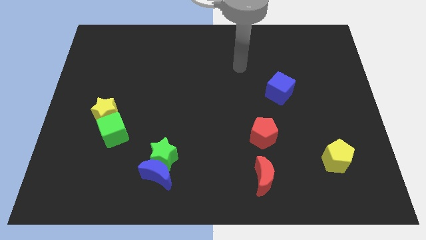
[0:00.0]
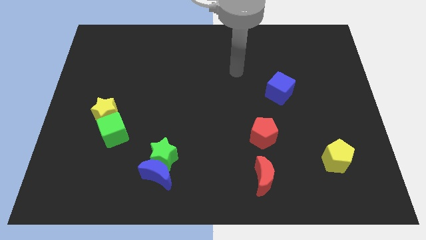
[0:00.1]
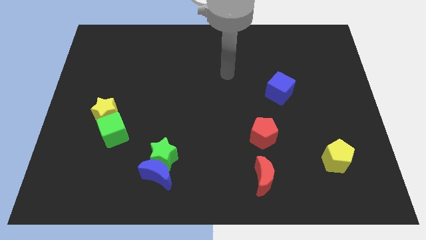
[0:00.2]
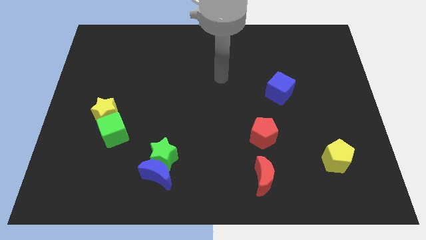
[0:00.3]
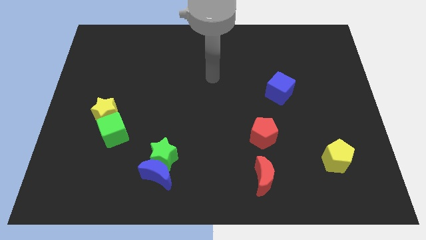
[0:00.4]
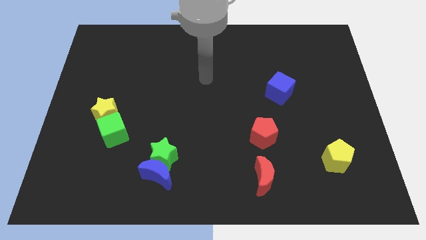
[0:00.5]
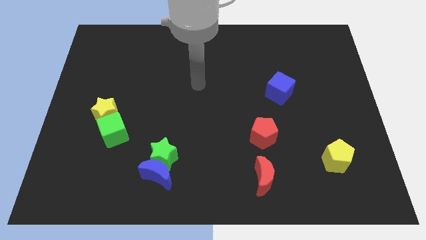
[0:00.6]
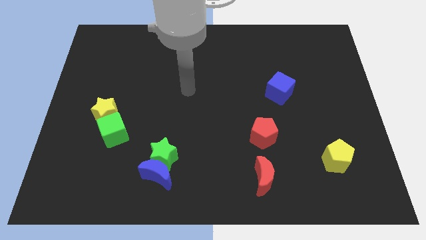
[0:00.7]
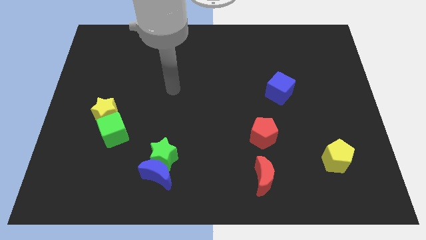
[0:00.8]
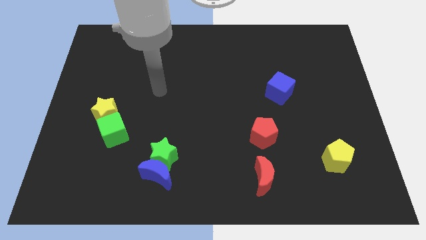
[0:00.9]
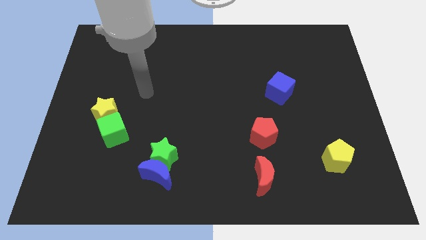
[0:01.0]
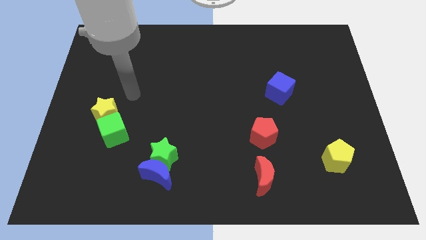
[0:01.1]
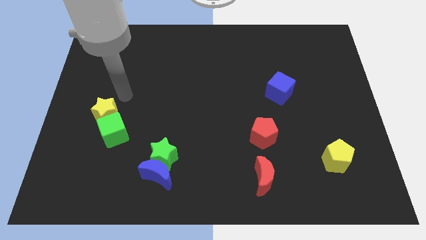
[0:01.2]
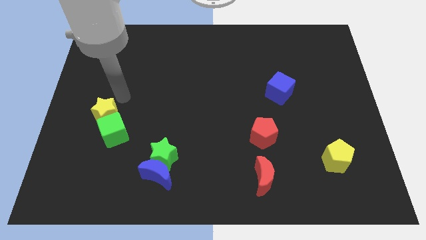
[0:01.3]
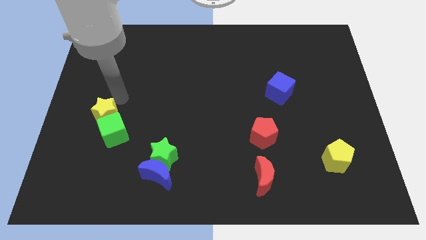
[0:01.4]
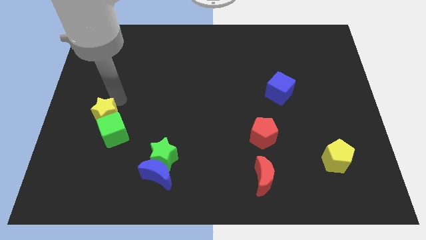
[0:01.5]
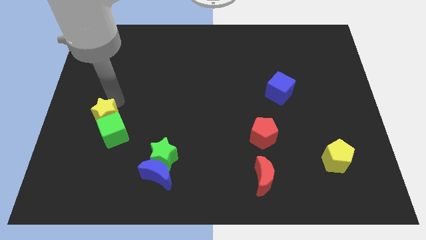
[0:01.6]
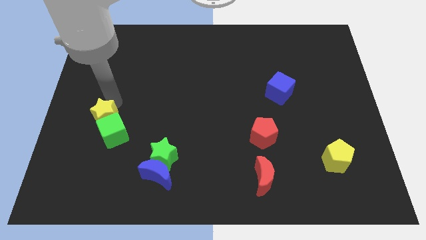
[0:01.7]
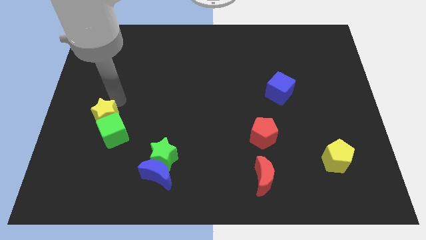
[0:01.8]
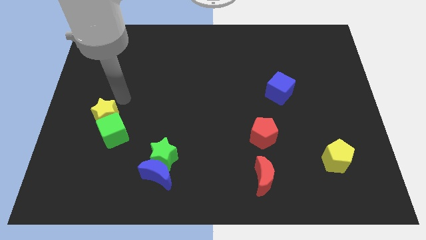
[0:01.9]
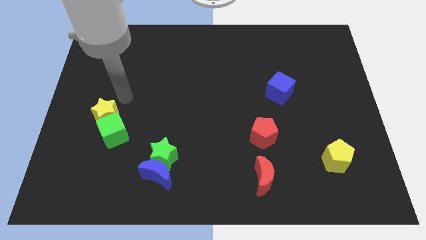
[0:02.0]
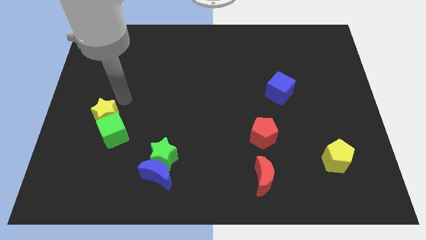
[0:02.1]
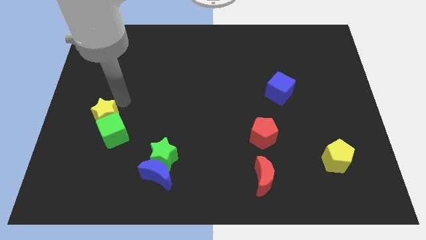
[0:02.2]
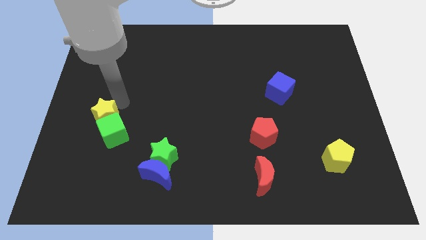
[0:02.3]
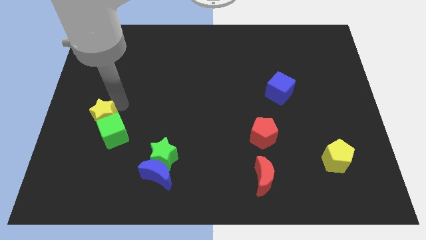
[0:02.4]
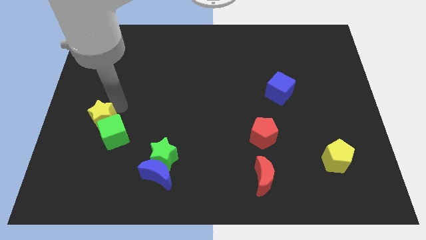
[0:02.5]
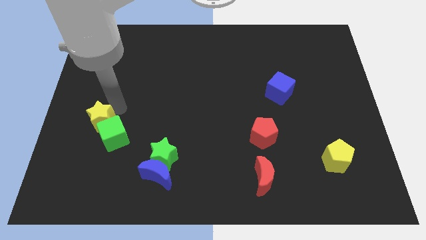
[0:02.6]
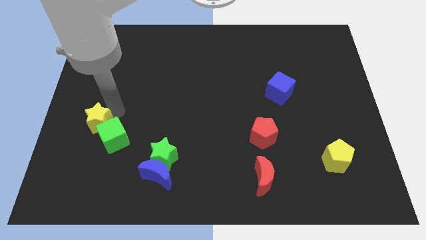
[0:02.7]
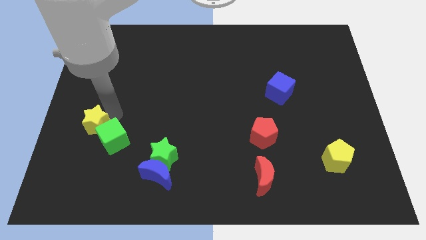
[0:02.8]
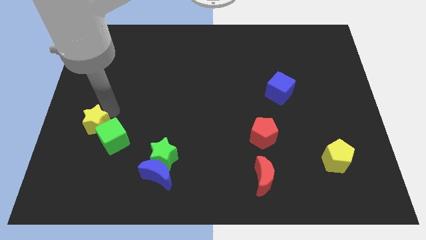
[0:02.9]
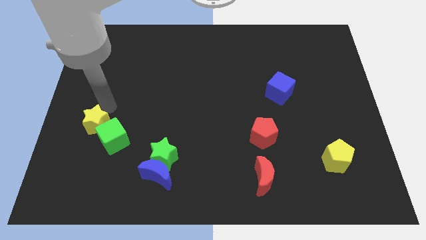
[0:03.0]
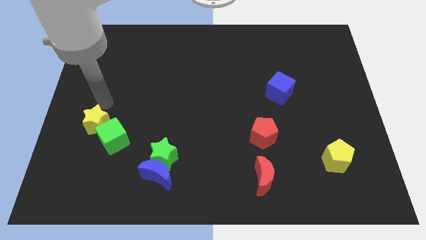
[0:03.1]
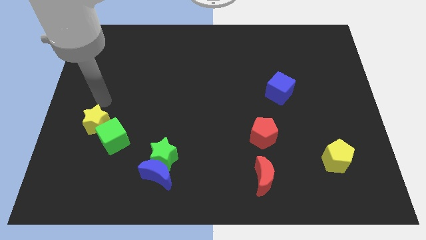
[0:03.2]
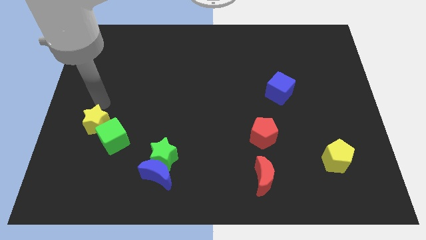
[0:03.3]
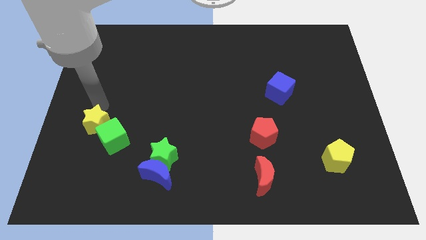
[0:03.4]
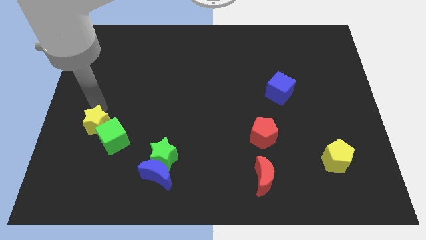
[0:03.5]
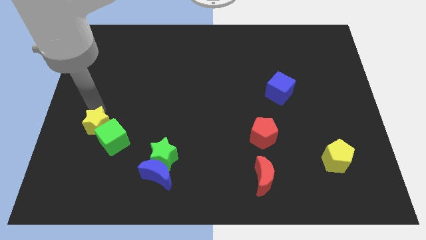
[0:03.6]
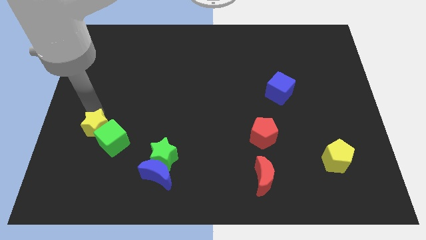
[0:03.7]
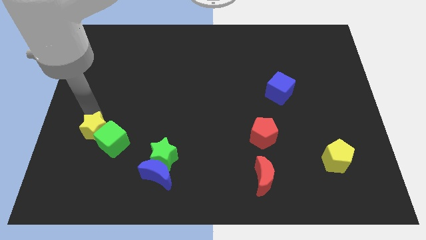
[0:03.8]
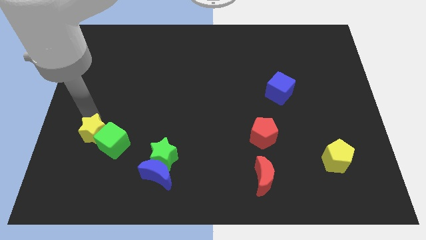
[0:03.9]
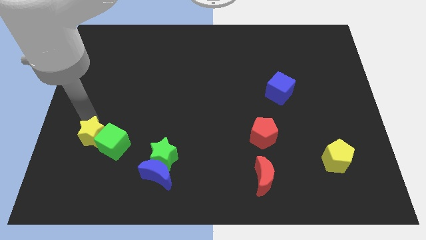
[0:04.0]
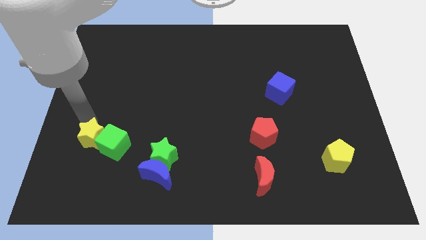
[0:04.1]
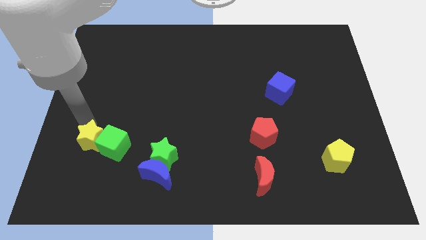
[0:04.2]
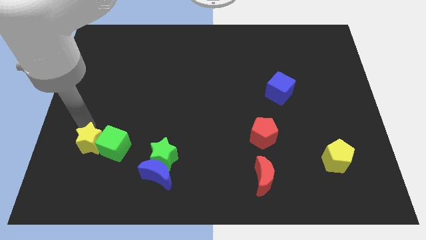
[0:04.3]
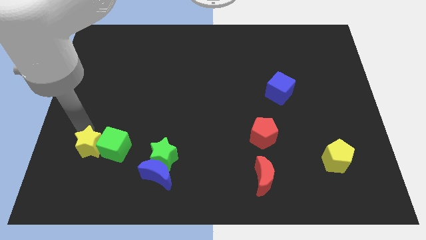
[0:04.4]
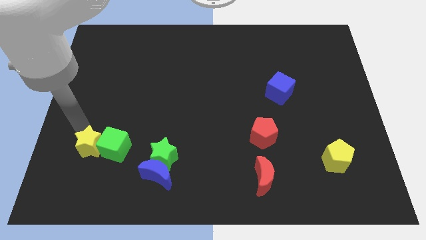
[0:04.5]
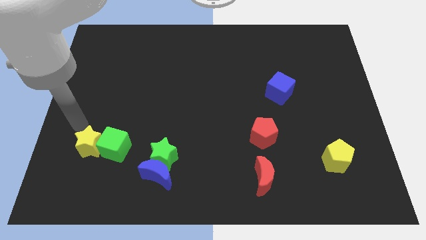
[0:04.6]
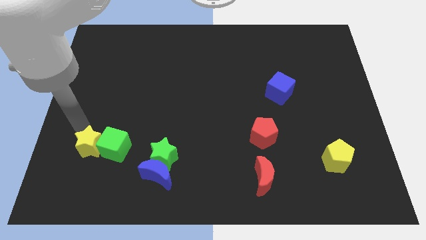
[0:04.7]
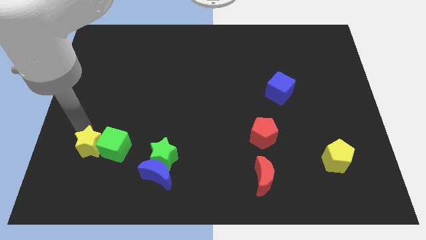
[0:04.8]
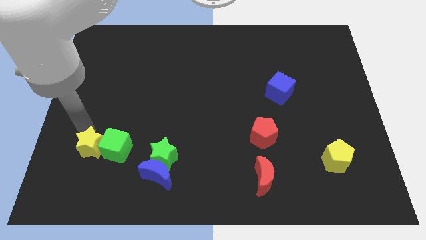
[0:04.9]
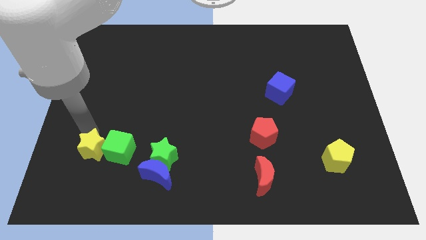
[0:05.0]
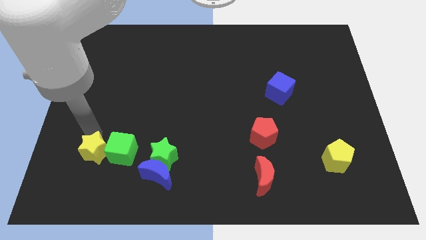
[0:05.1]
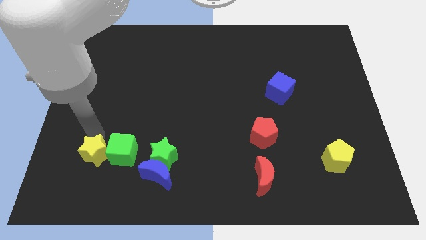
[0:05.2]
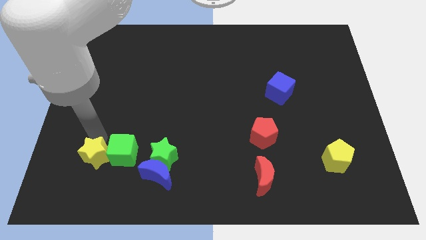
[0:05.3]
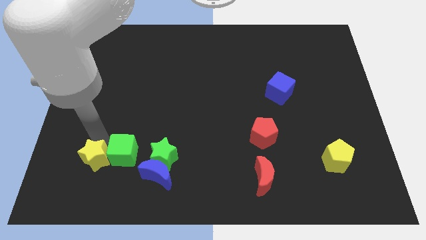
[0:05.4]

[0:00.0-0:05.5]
slide the yellow star just left of the blue moon

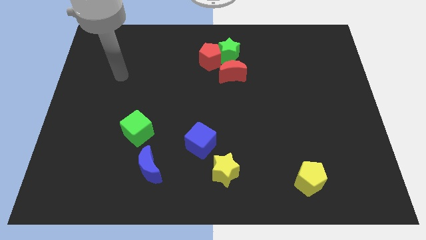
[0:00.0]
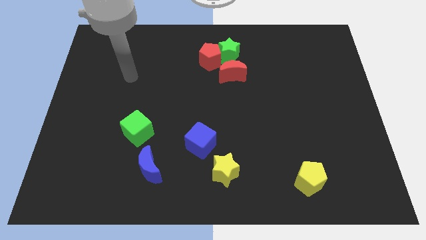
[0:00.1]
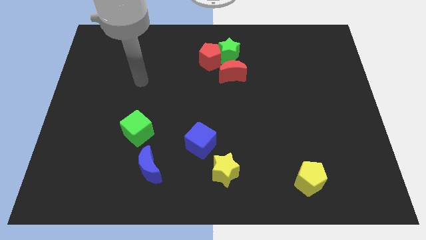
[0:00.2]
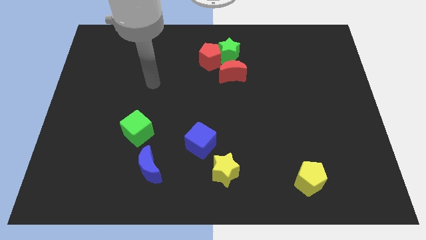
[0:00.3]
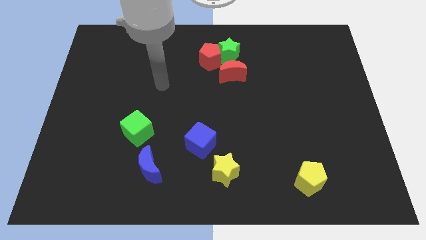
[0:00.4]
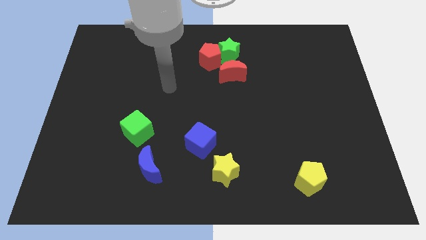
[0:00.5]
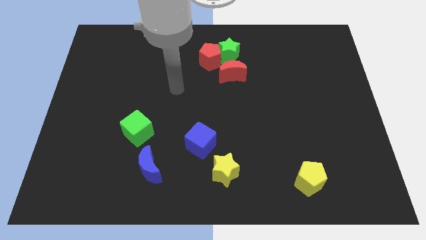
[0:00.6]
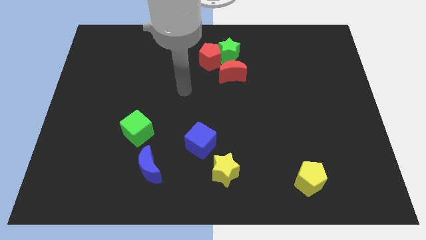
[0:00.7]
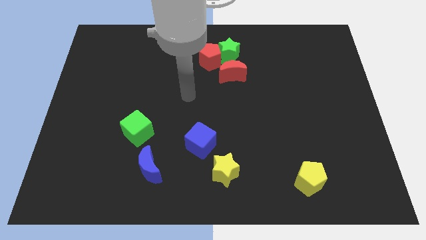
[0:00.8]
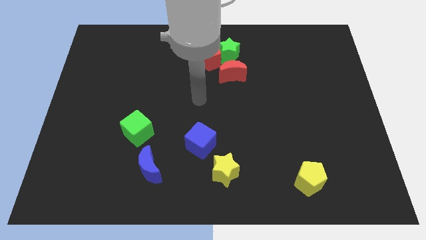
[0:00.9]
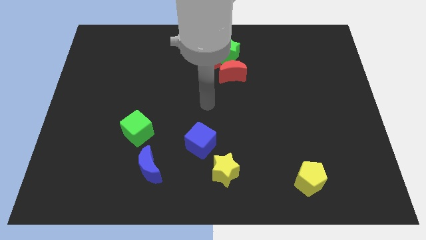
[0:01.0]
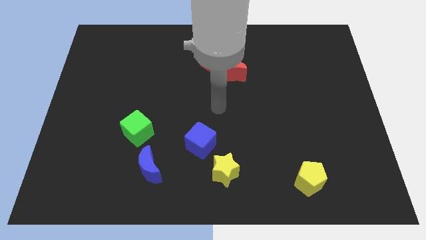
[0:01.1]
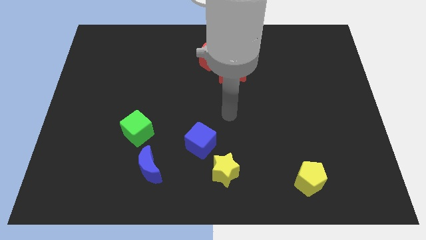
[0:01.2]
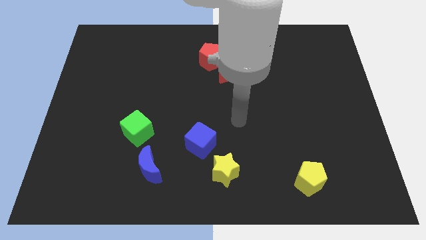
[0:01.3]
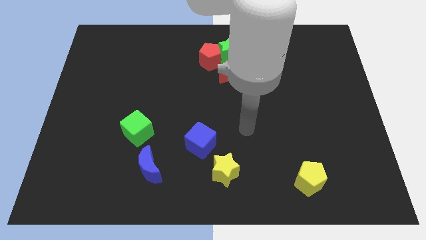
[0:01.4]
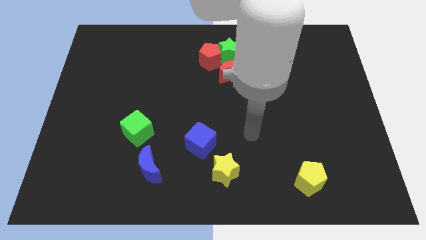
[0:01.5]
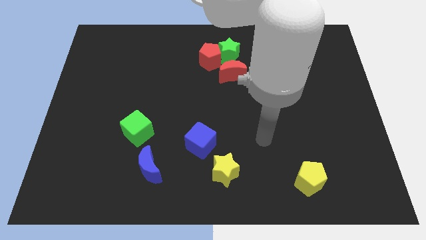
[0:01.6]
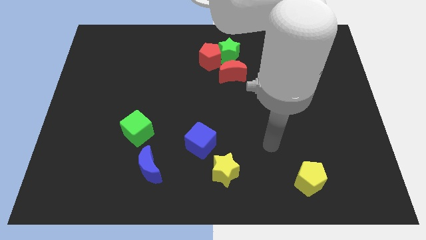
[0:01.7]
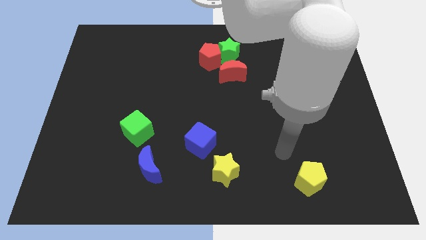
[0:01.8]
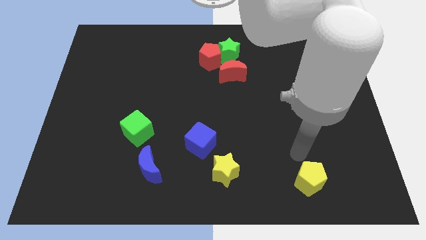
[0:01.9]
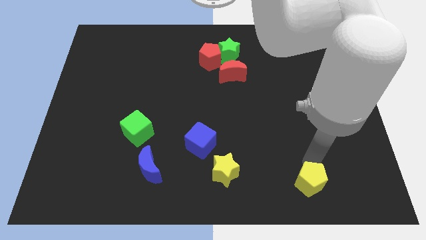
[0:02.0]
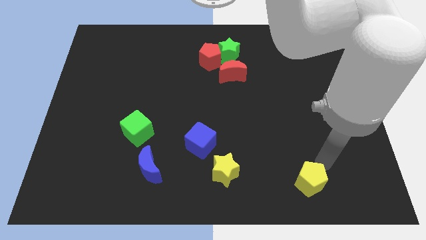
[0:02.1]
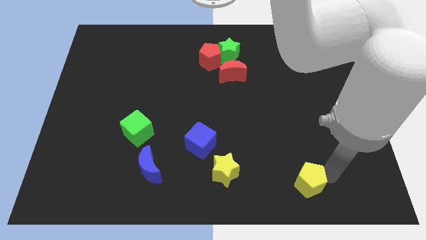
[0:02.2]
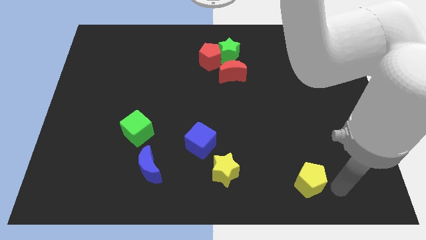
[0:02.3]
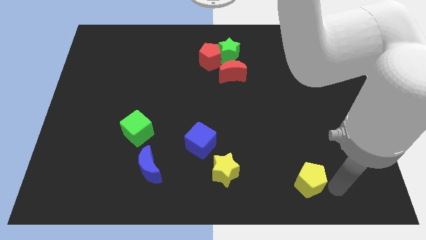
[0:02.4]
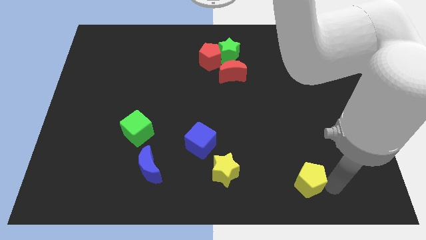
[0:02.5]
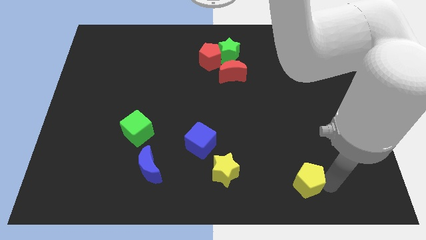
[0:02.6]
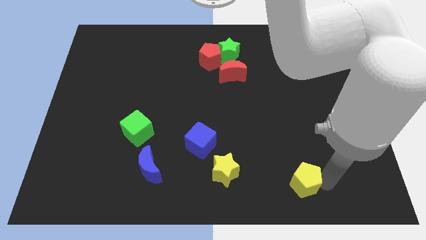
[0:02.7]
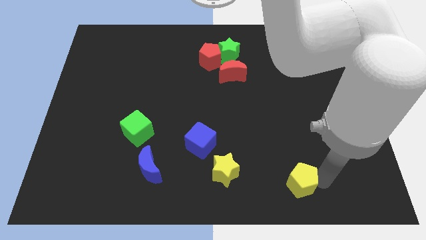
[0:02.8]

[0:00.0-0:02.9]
put the yellow pentagon just right of the yellow star
